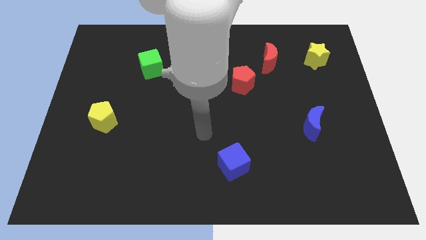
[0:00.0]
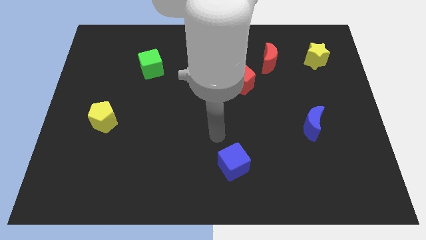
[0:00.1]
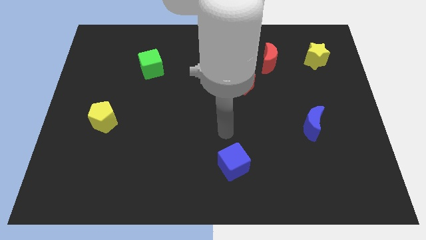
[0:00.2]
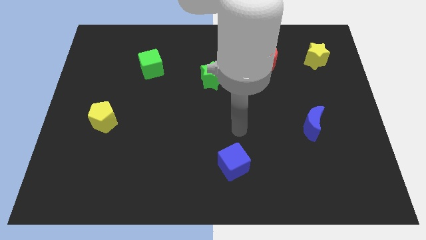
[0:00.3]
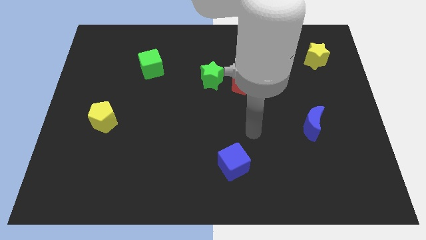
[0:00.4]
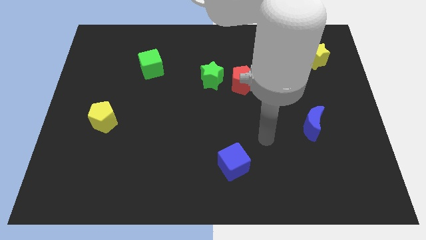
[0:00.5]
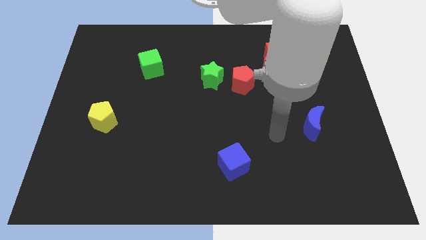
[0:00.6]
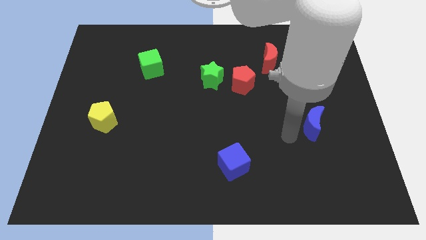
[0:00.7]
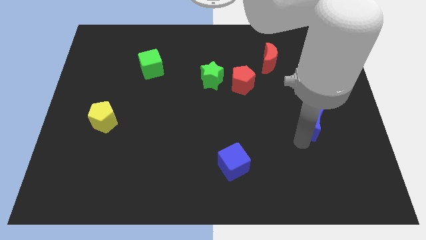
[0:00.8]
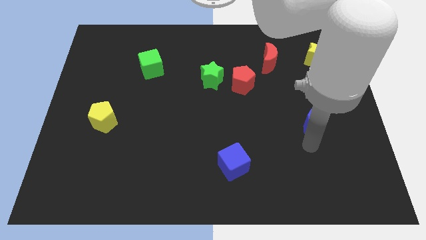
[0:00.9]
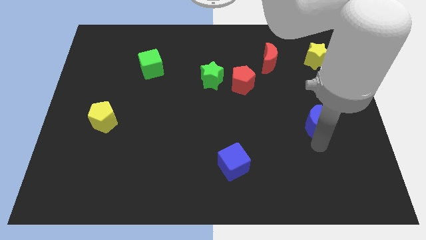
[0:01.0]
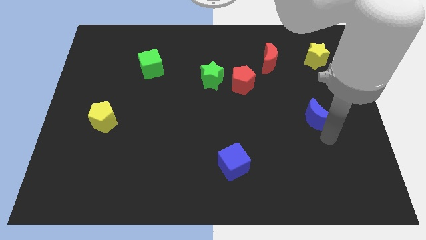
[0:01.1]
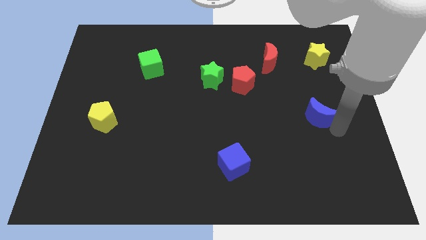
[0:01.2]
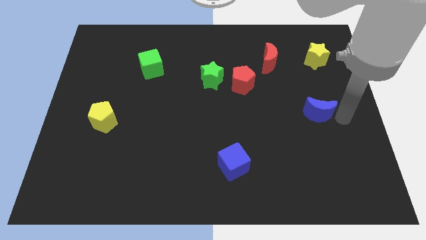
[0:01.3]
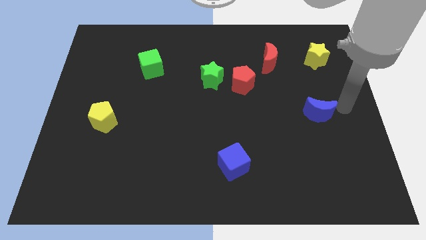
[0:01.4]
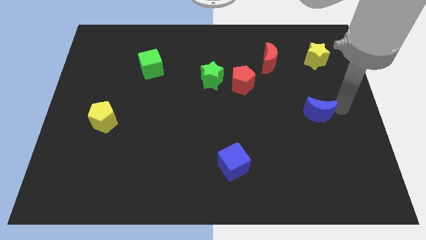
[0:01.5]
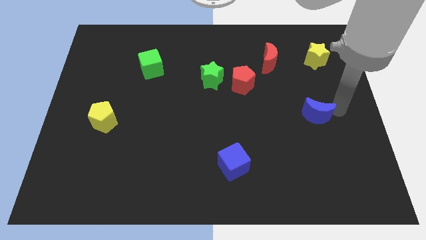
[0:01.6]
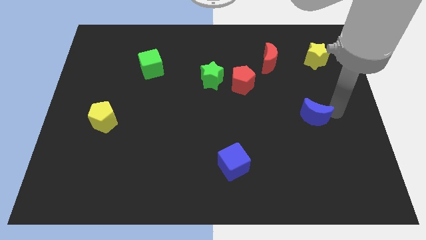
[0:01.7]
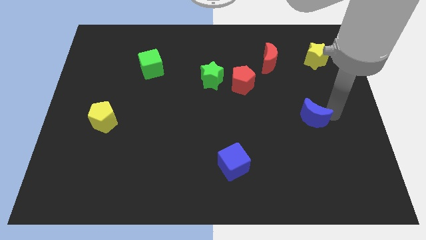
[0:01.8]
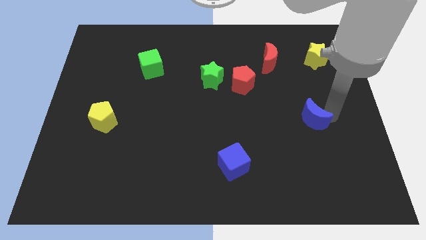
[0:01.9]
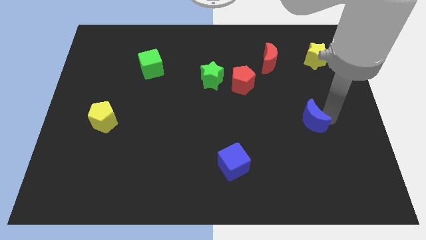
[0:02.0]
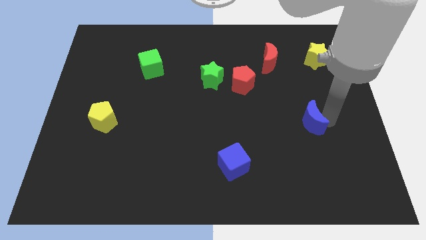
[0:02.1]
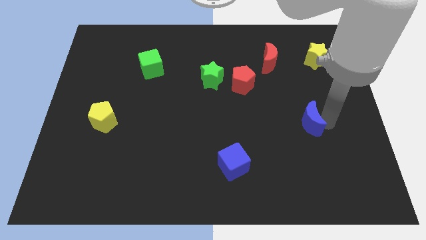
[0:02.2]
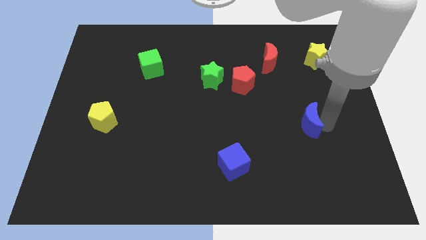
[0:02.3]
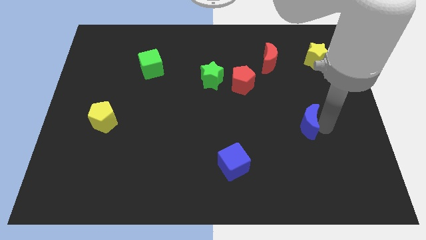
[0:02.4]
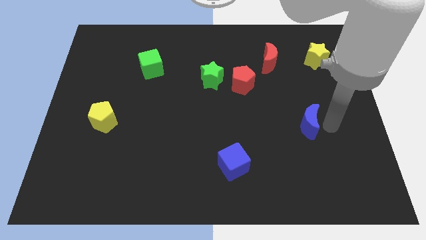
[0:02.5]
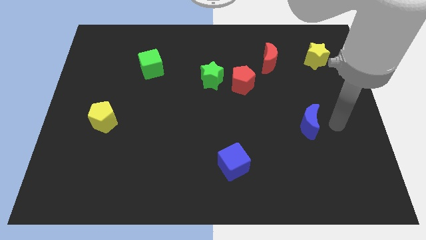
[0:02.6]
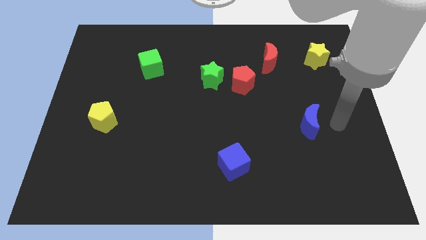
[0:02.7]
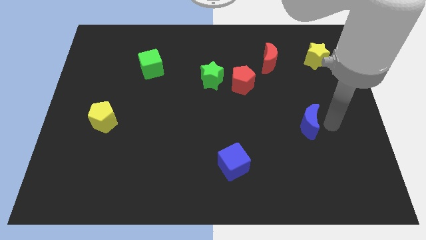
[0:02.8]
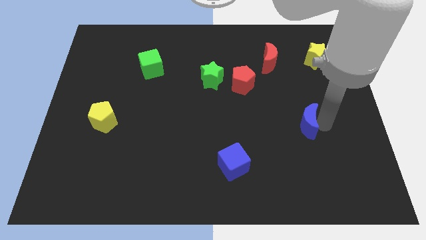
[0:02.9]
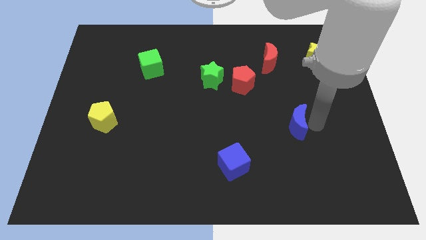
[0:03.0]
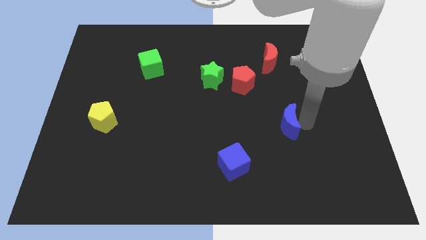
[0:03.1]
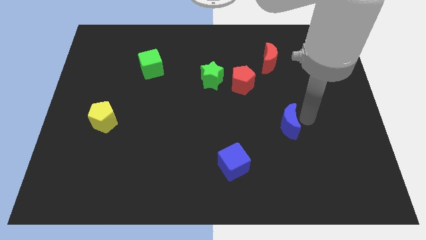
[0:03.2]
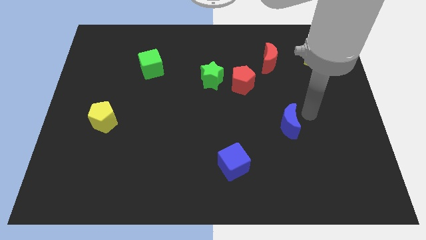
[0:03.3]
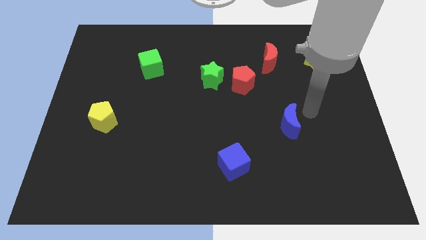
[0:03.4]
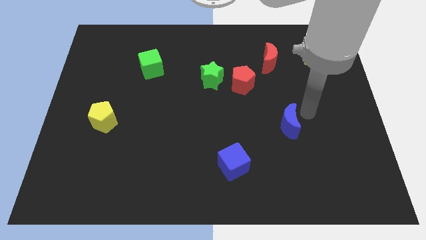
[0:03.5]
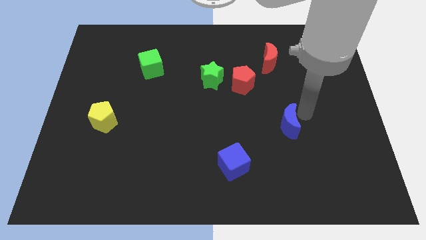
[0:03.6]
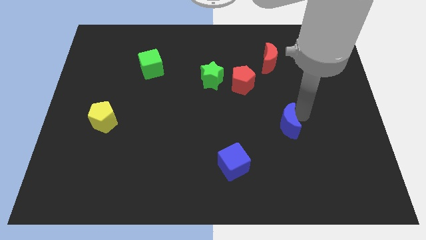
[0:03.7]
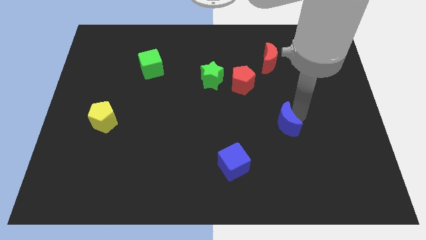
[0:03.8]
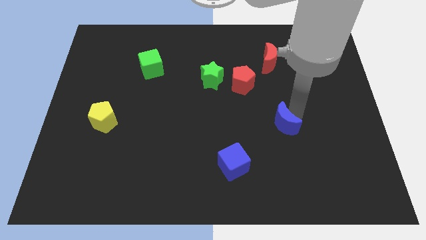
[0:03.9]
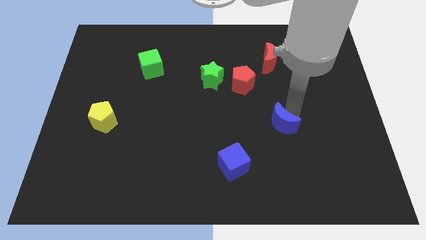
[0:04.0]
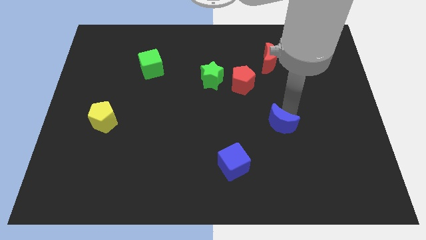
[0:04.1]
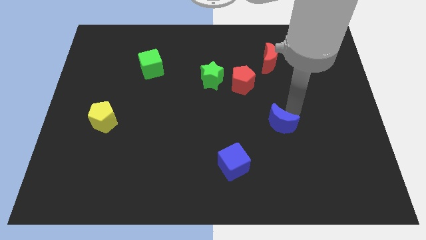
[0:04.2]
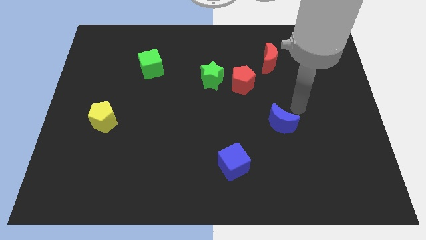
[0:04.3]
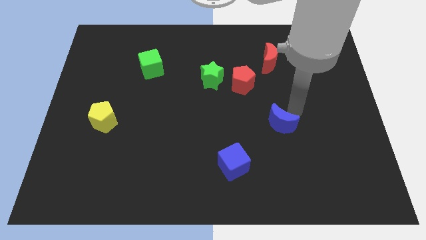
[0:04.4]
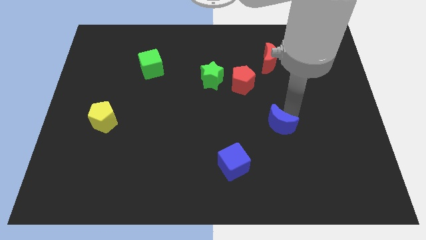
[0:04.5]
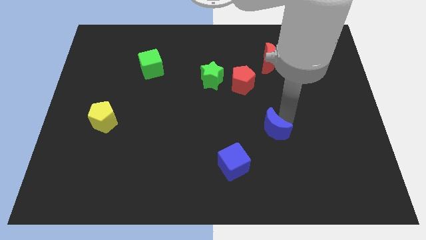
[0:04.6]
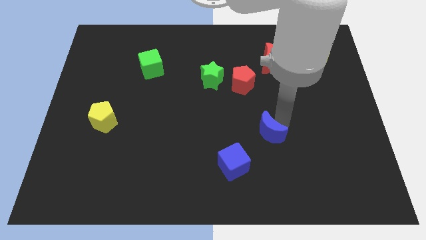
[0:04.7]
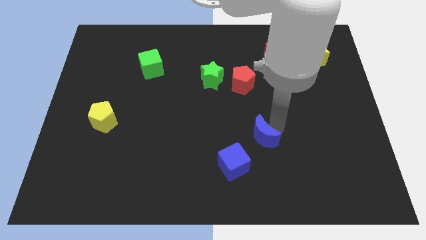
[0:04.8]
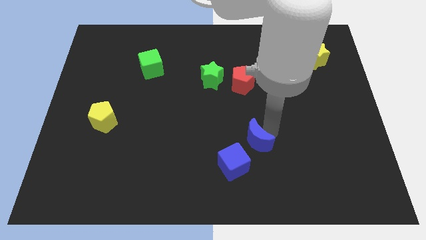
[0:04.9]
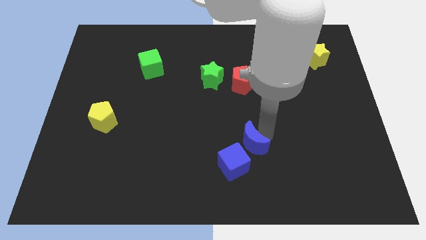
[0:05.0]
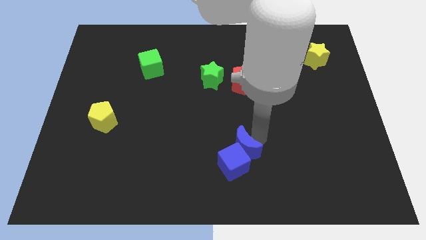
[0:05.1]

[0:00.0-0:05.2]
slide the blue moon to the blue cube

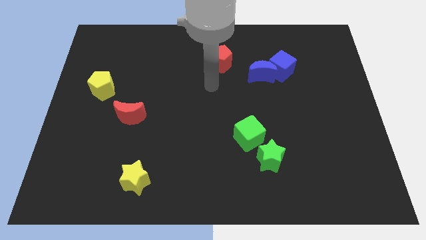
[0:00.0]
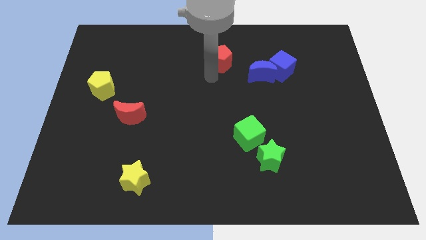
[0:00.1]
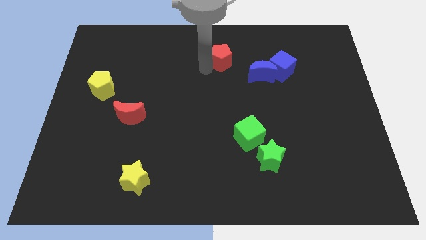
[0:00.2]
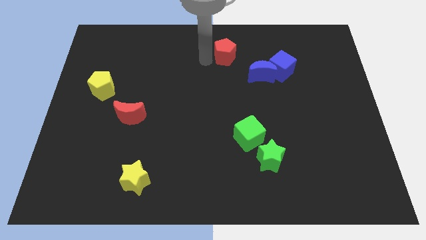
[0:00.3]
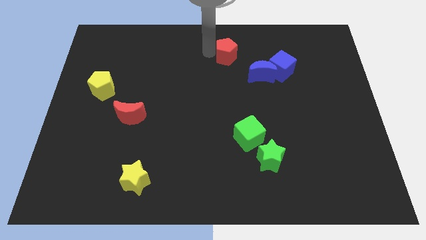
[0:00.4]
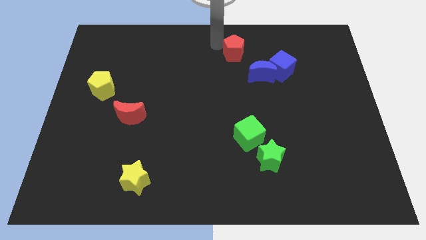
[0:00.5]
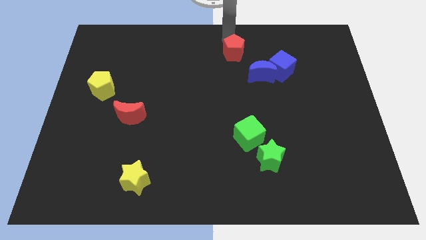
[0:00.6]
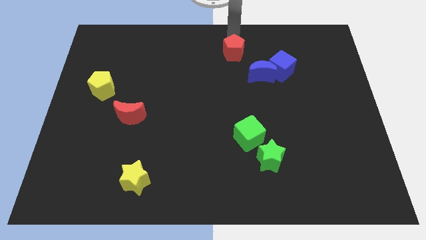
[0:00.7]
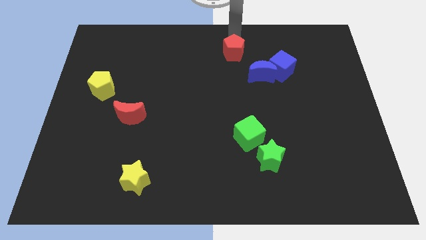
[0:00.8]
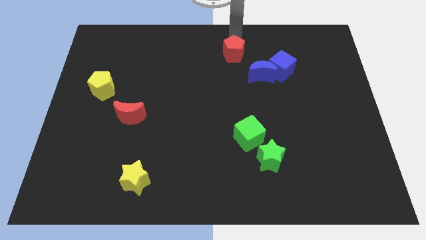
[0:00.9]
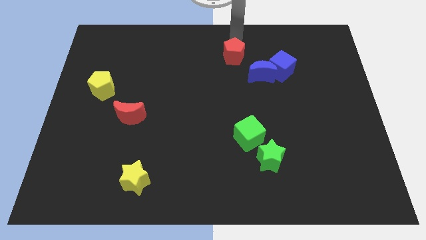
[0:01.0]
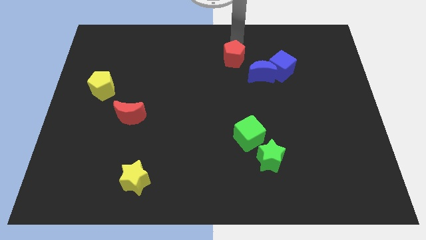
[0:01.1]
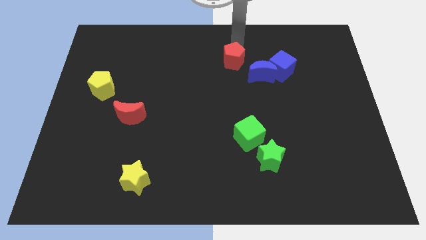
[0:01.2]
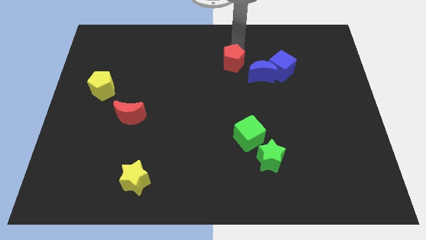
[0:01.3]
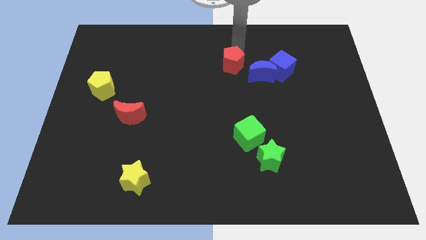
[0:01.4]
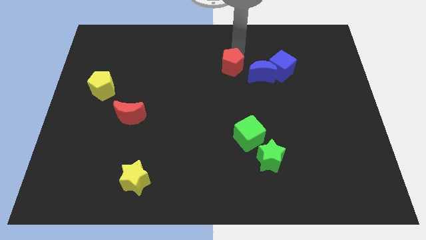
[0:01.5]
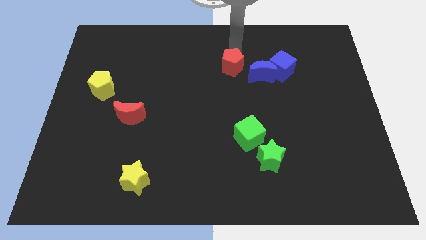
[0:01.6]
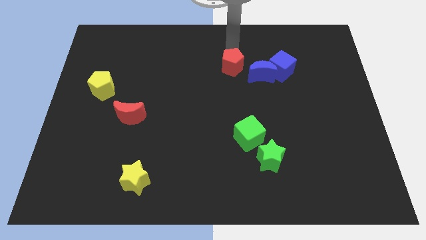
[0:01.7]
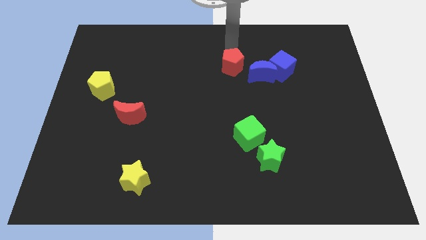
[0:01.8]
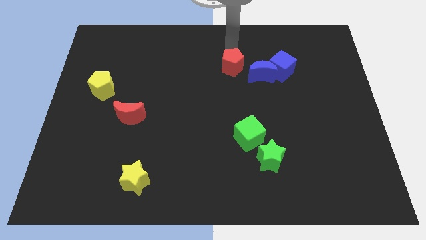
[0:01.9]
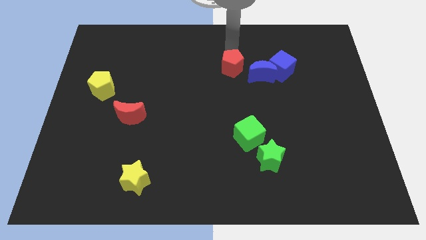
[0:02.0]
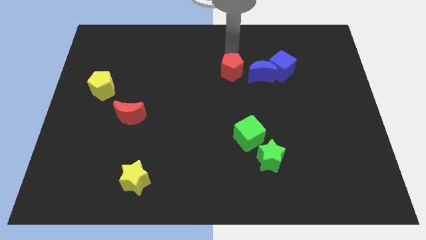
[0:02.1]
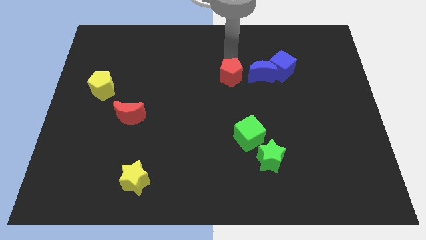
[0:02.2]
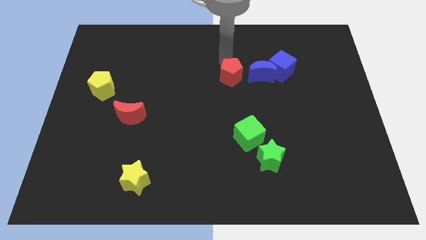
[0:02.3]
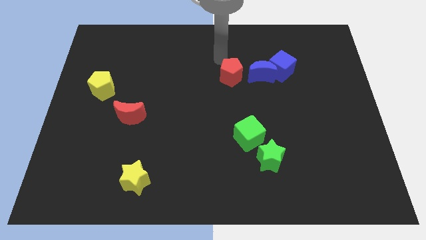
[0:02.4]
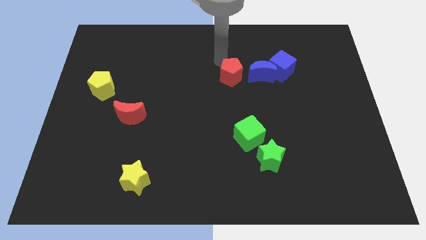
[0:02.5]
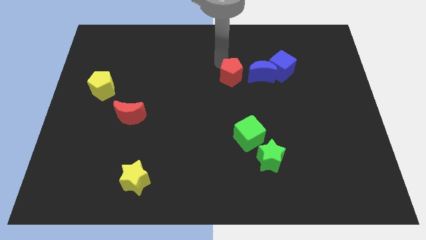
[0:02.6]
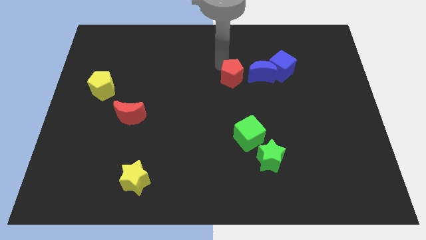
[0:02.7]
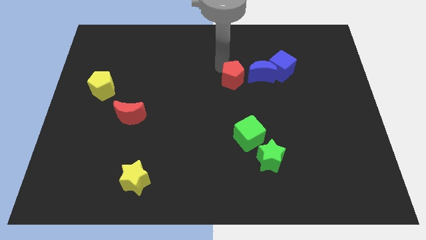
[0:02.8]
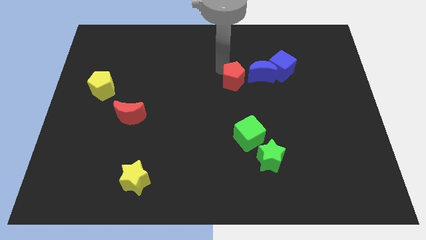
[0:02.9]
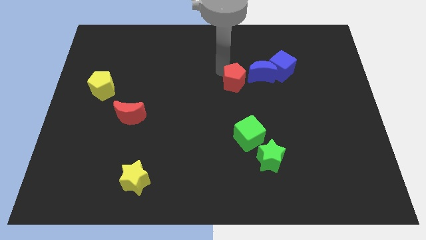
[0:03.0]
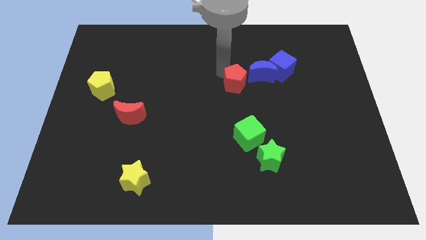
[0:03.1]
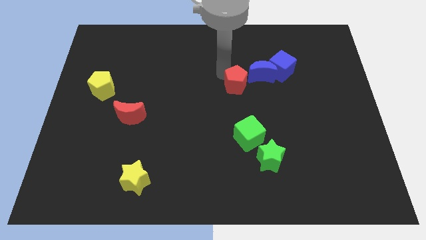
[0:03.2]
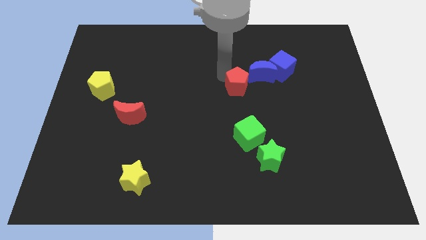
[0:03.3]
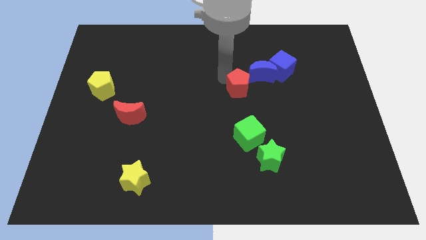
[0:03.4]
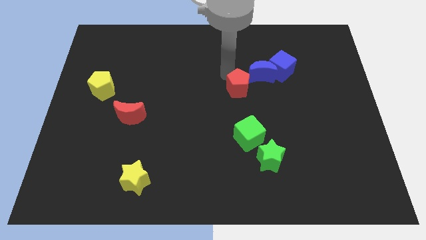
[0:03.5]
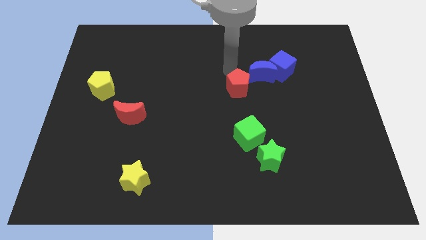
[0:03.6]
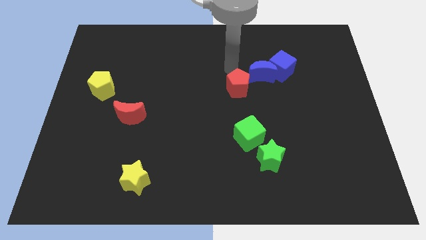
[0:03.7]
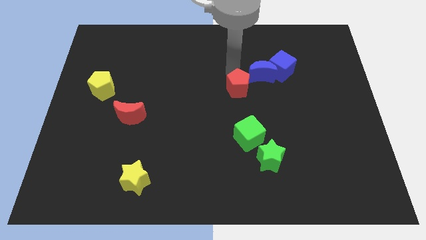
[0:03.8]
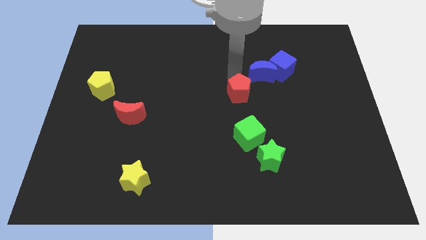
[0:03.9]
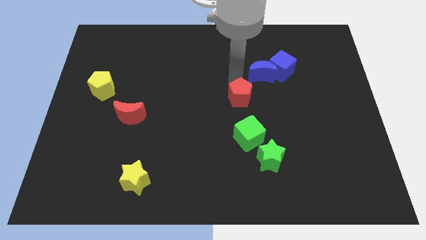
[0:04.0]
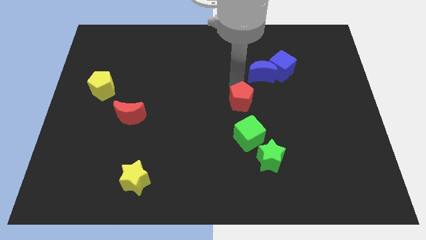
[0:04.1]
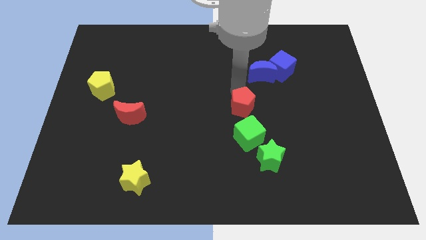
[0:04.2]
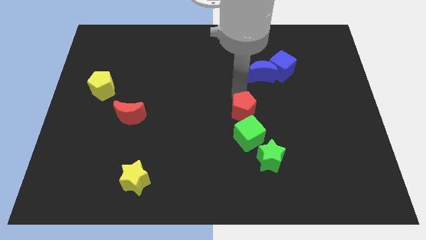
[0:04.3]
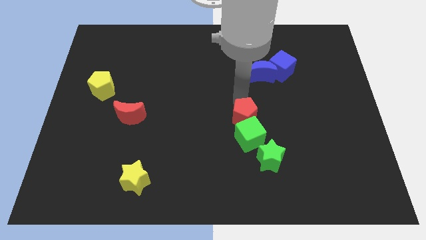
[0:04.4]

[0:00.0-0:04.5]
push the red pentagon to the green cube
